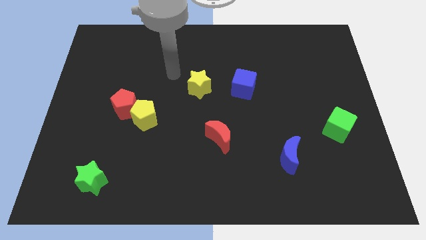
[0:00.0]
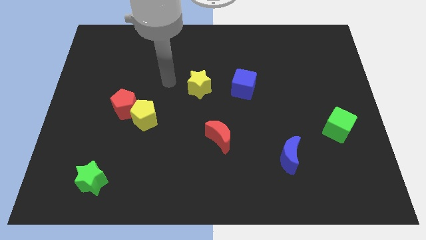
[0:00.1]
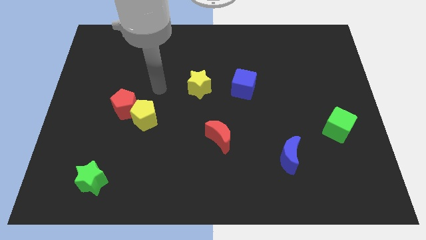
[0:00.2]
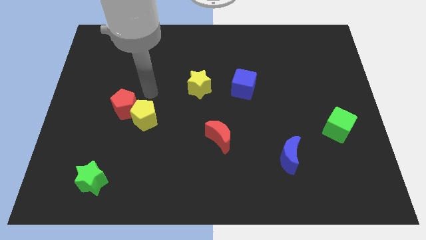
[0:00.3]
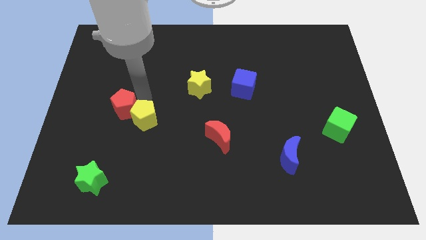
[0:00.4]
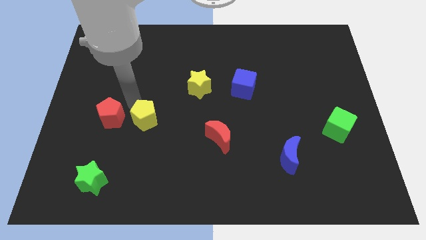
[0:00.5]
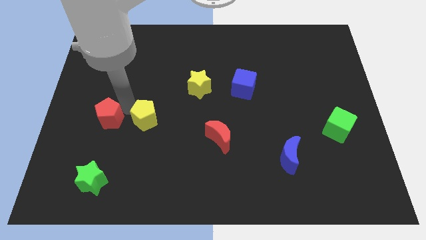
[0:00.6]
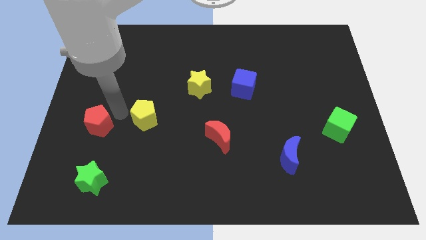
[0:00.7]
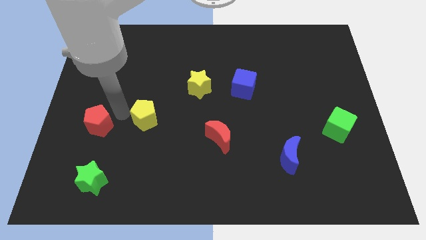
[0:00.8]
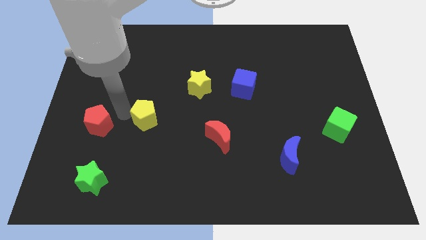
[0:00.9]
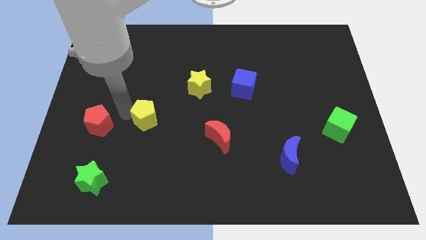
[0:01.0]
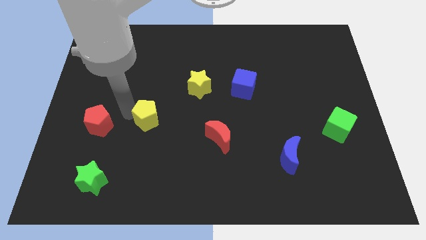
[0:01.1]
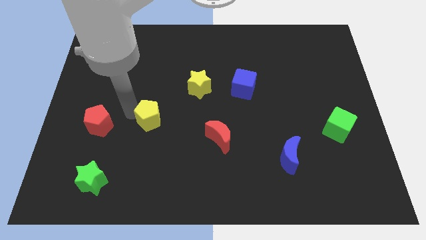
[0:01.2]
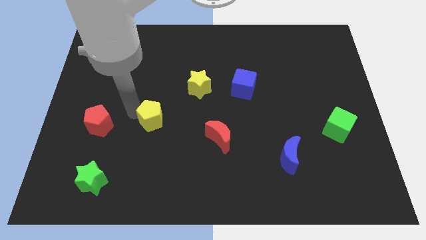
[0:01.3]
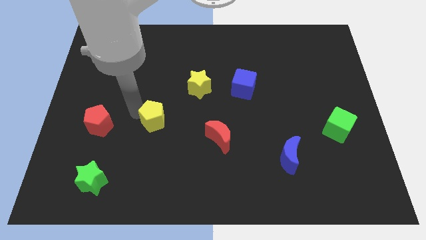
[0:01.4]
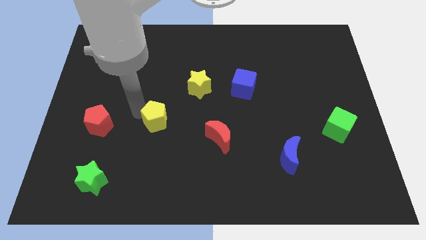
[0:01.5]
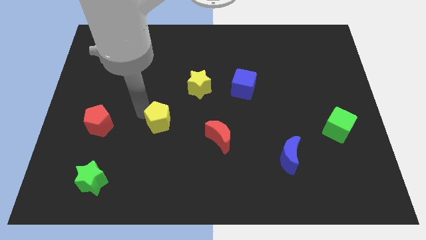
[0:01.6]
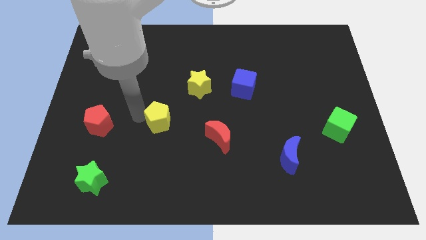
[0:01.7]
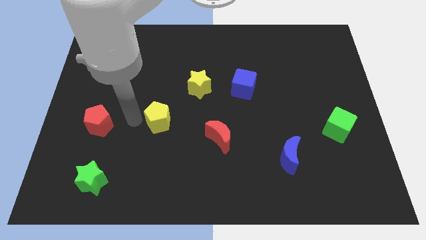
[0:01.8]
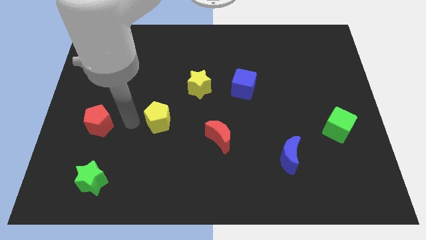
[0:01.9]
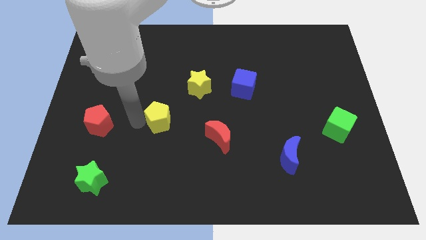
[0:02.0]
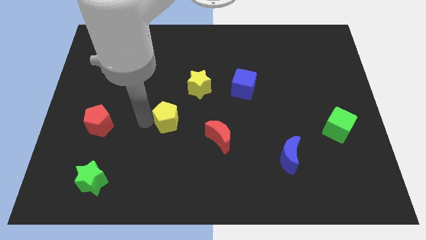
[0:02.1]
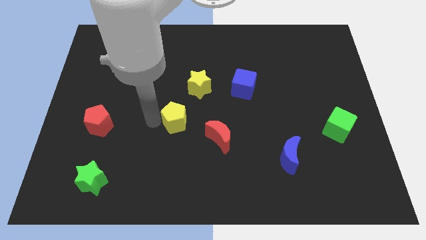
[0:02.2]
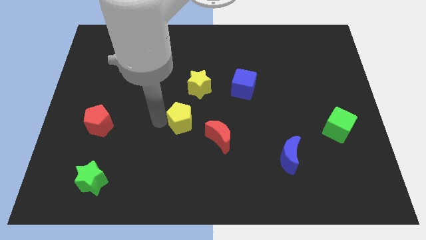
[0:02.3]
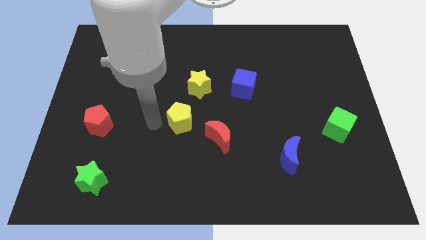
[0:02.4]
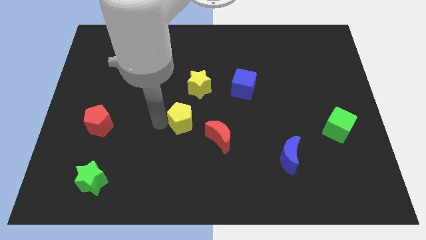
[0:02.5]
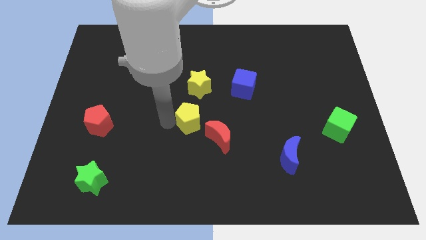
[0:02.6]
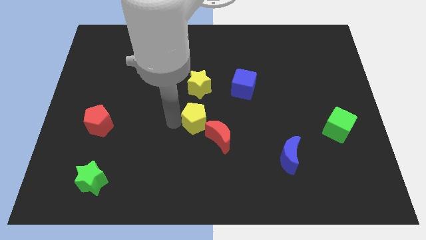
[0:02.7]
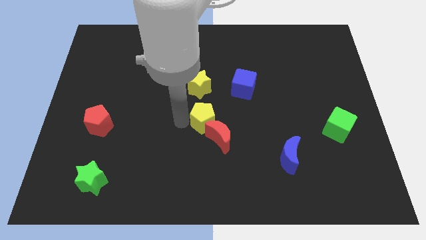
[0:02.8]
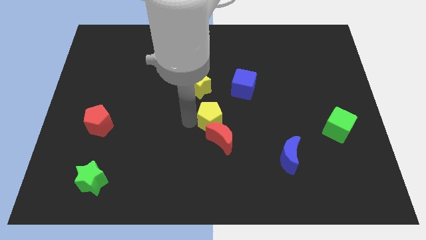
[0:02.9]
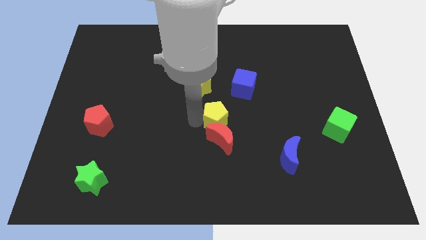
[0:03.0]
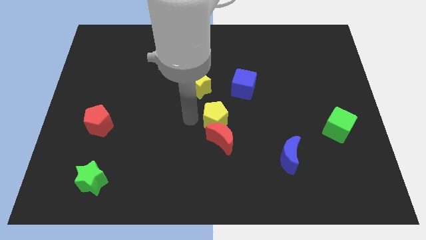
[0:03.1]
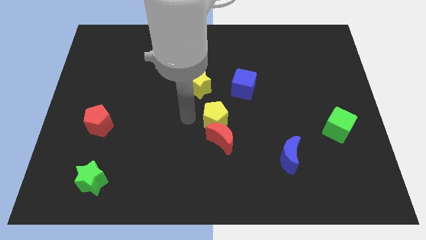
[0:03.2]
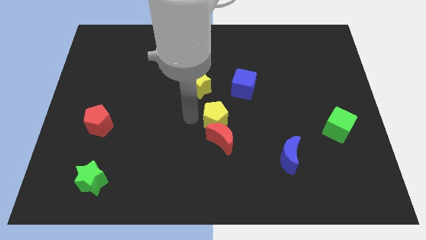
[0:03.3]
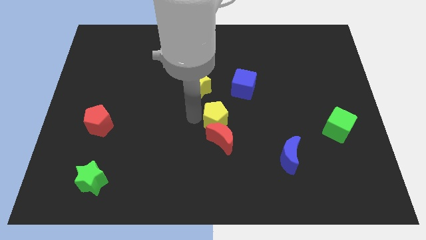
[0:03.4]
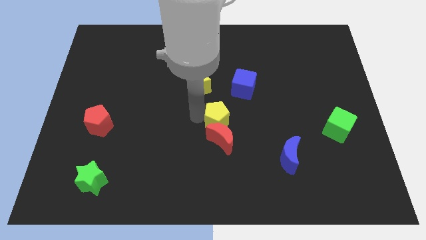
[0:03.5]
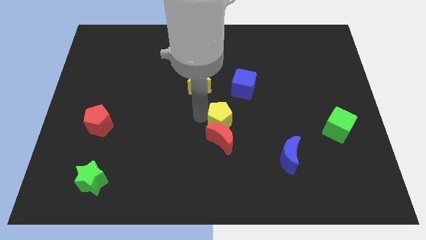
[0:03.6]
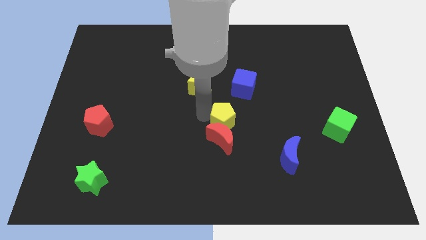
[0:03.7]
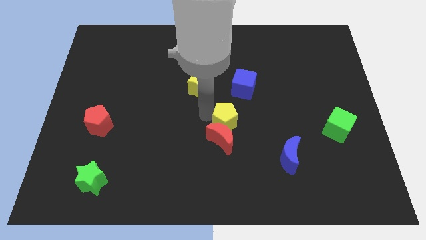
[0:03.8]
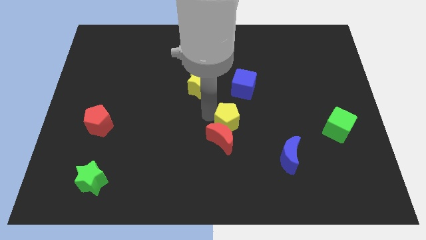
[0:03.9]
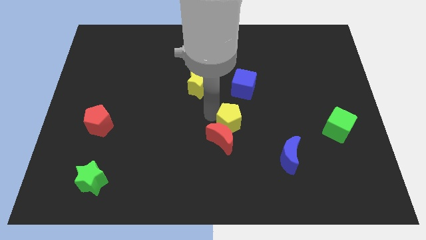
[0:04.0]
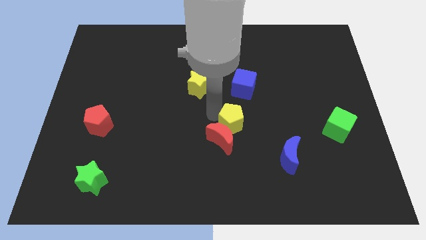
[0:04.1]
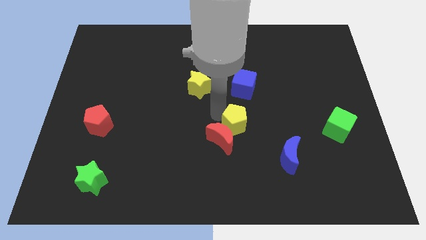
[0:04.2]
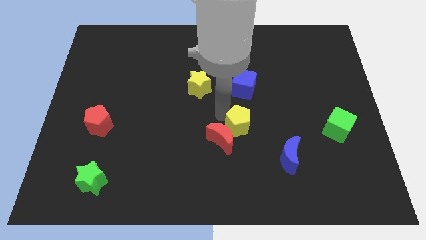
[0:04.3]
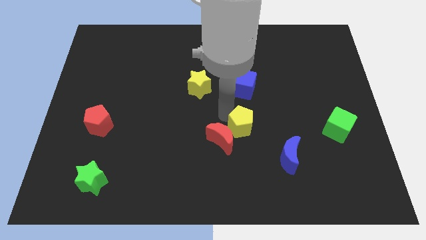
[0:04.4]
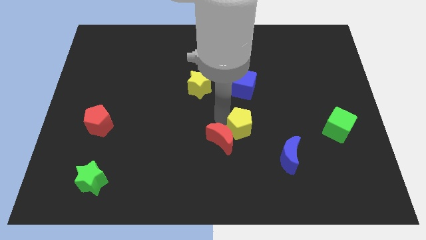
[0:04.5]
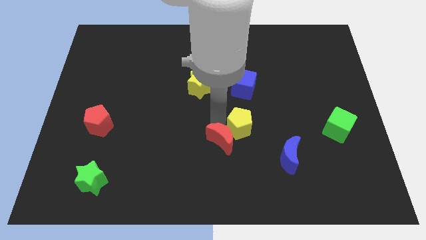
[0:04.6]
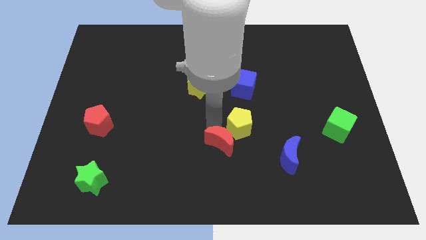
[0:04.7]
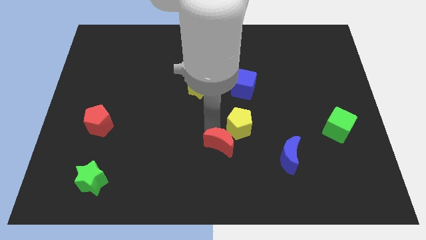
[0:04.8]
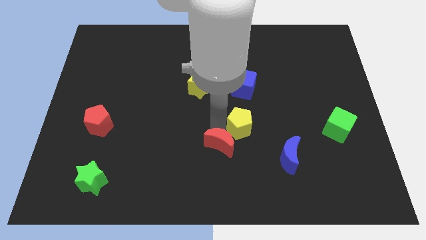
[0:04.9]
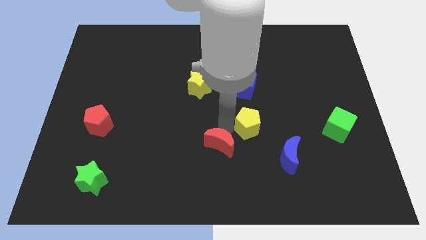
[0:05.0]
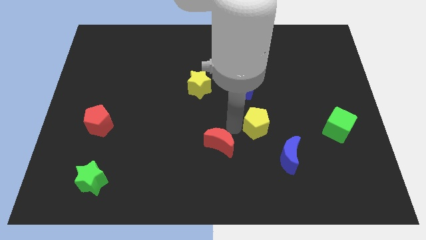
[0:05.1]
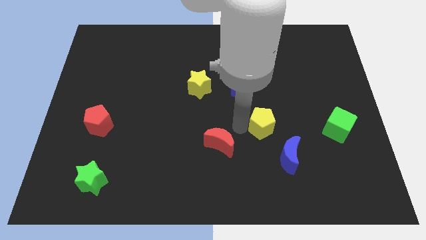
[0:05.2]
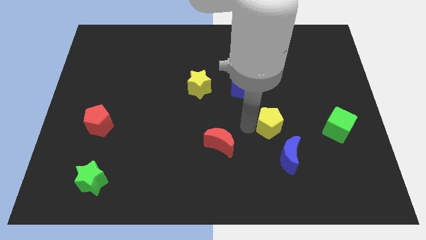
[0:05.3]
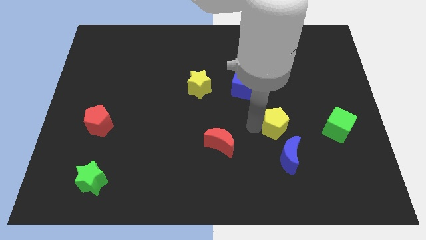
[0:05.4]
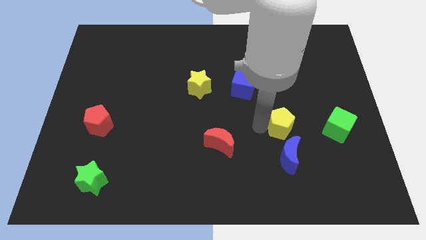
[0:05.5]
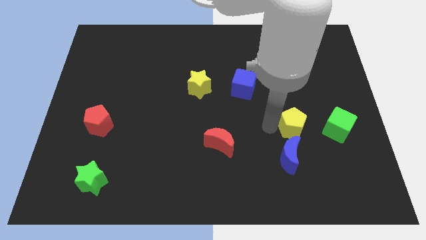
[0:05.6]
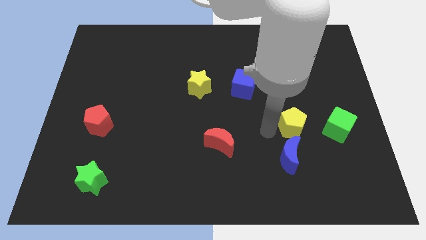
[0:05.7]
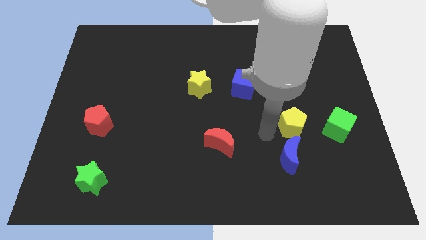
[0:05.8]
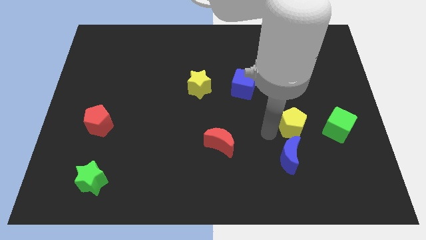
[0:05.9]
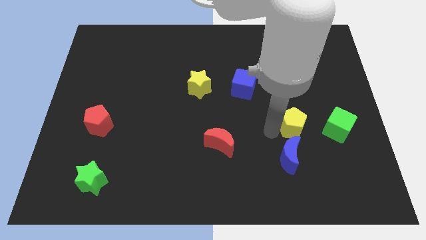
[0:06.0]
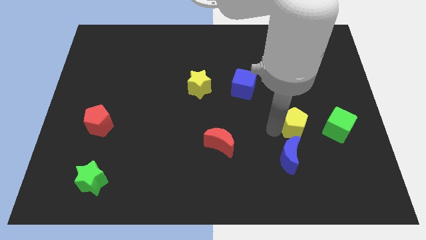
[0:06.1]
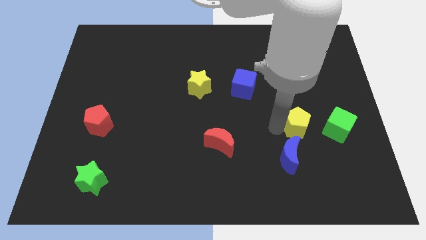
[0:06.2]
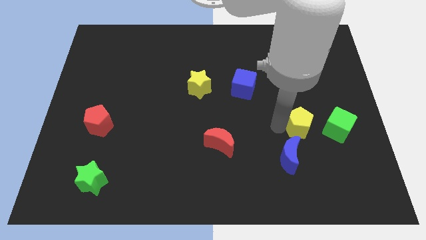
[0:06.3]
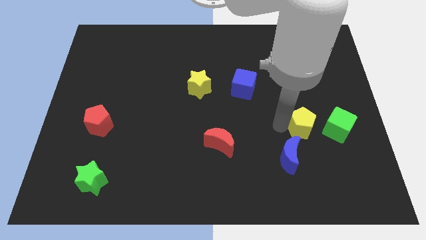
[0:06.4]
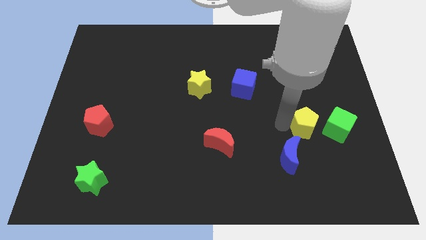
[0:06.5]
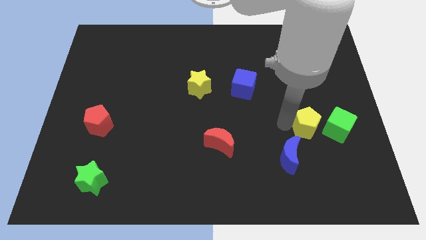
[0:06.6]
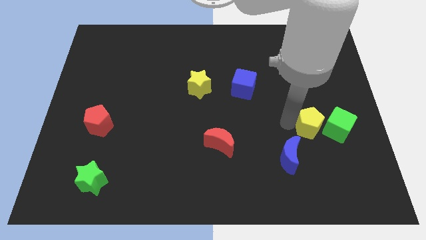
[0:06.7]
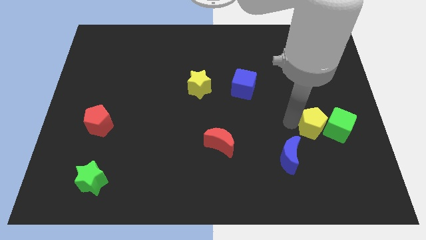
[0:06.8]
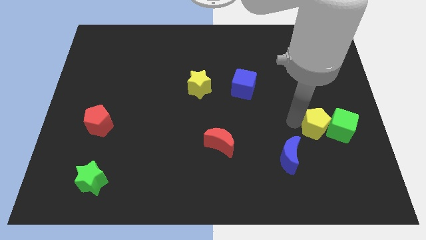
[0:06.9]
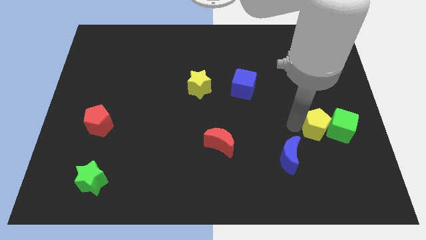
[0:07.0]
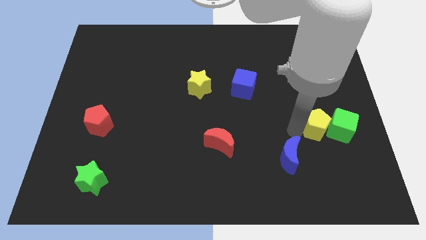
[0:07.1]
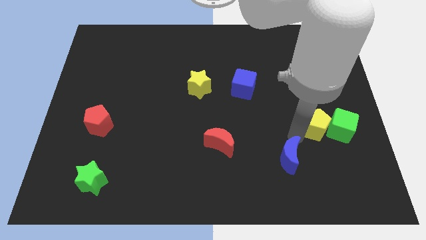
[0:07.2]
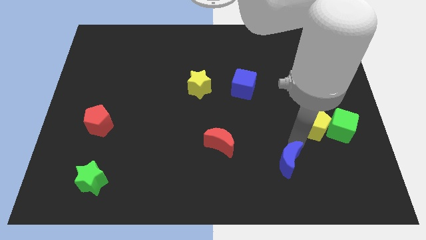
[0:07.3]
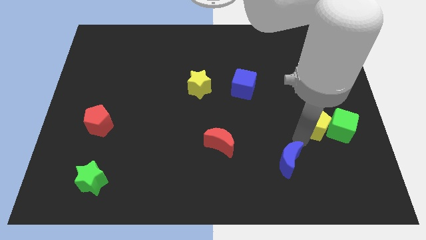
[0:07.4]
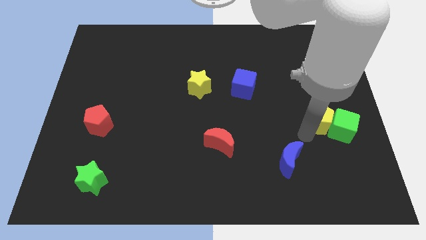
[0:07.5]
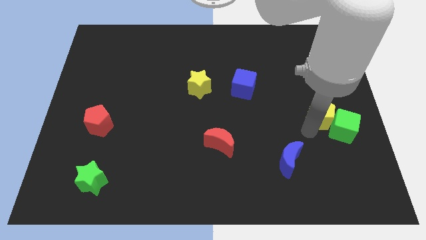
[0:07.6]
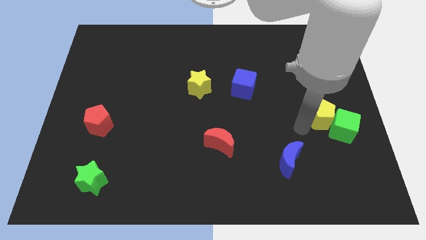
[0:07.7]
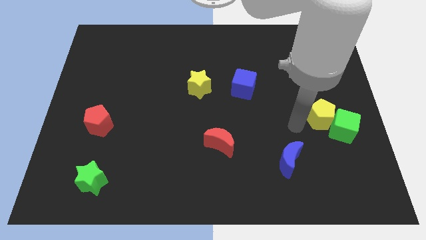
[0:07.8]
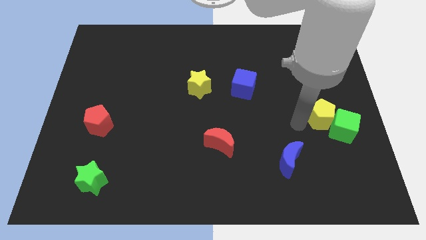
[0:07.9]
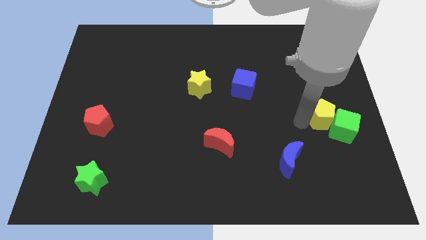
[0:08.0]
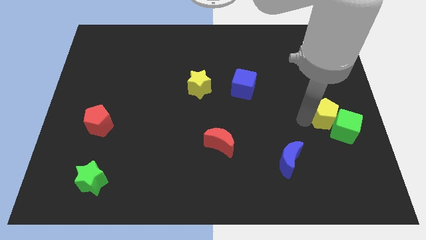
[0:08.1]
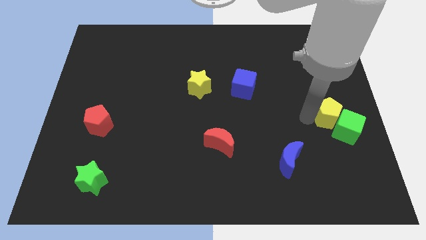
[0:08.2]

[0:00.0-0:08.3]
push the yellow pentagon to the right side
